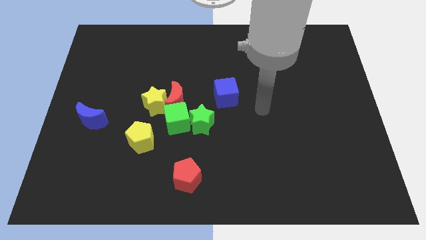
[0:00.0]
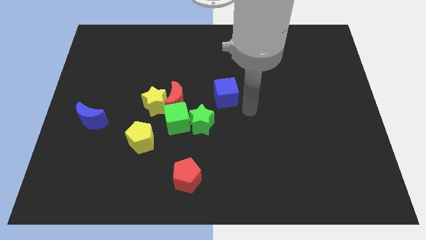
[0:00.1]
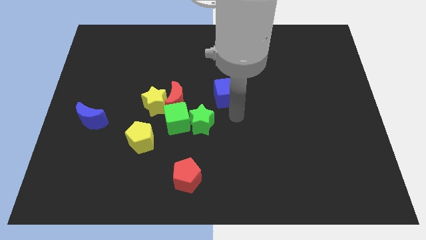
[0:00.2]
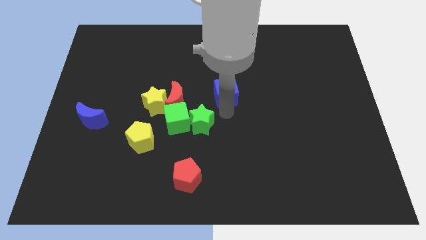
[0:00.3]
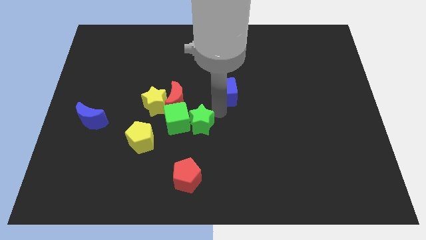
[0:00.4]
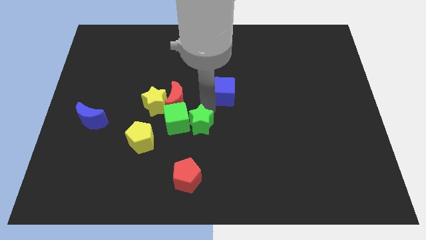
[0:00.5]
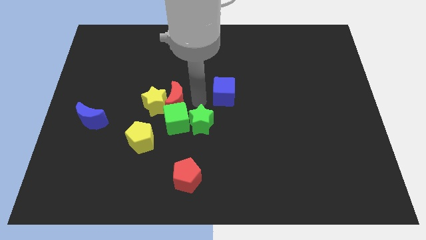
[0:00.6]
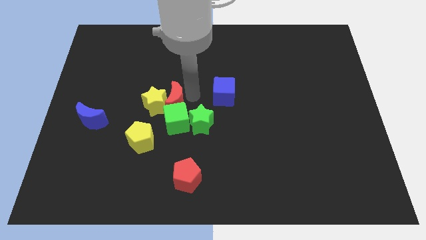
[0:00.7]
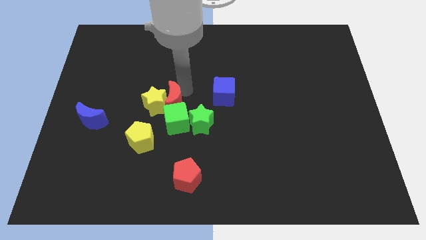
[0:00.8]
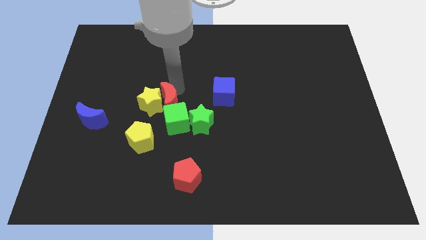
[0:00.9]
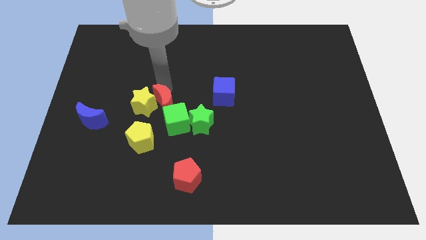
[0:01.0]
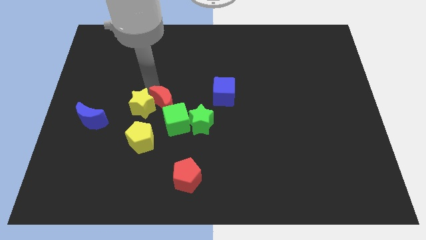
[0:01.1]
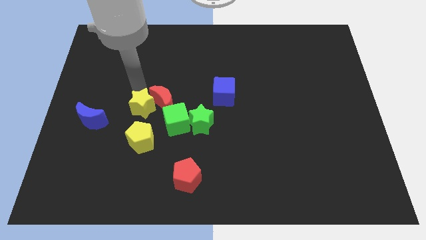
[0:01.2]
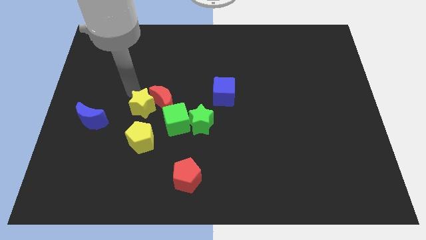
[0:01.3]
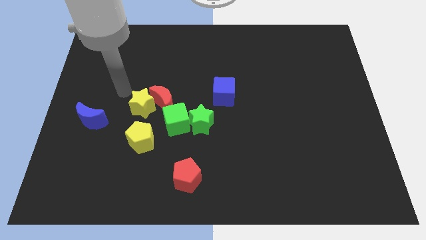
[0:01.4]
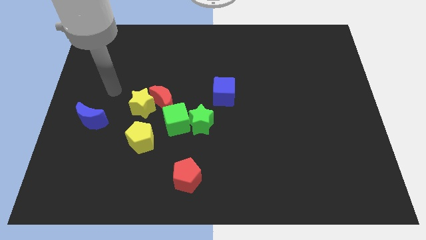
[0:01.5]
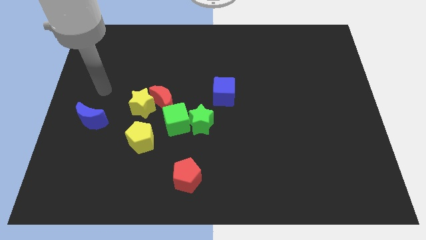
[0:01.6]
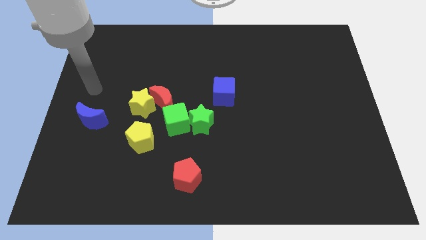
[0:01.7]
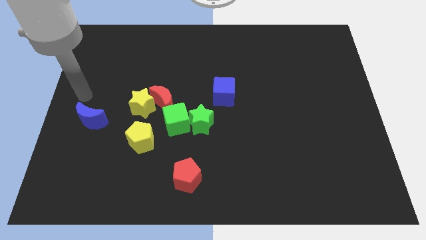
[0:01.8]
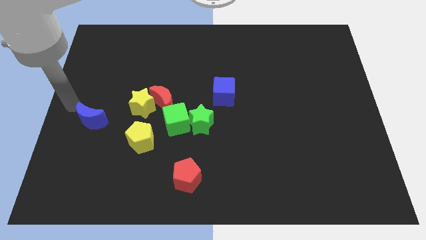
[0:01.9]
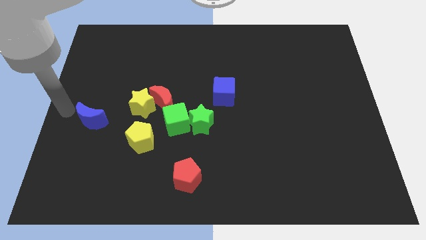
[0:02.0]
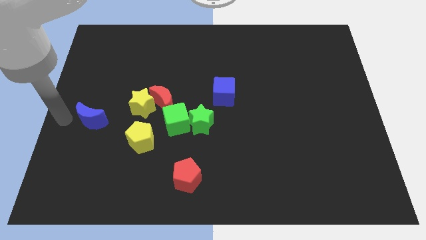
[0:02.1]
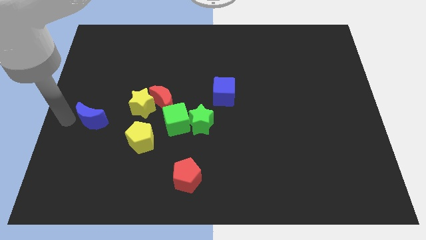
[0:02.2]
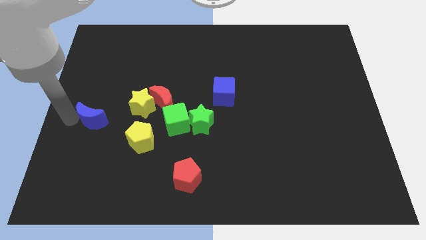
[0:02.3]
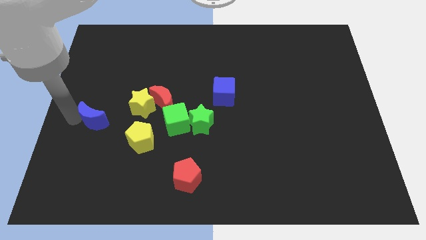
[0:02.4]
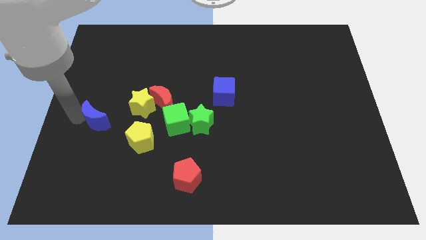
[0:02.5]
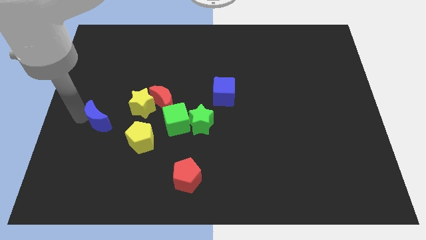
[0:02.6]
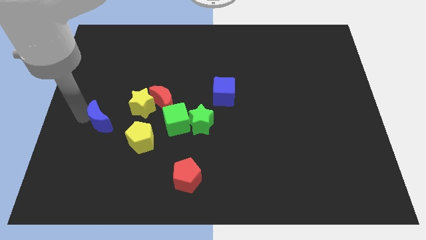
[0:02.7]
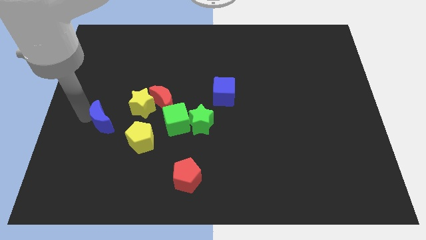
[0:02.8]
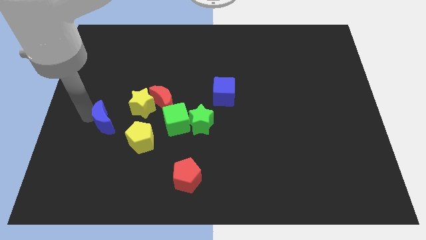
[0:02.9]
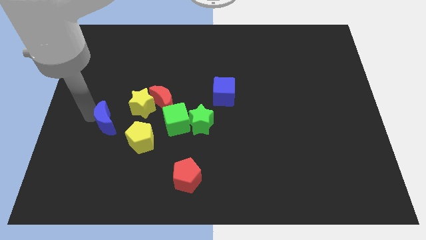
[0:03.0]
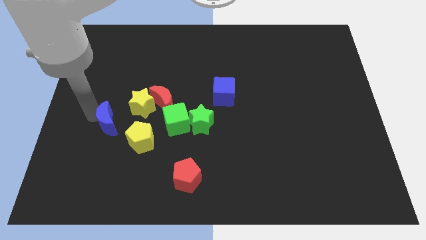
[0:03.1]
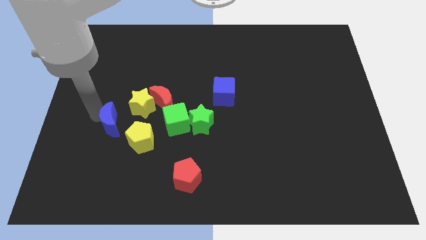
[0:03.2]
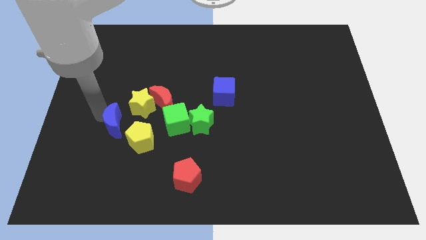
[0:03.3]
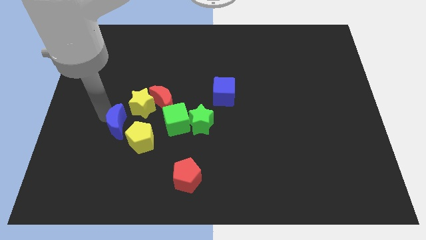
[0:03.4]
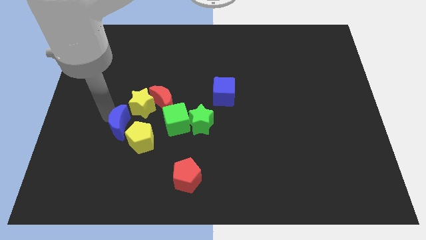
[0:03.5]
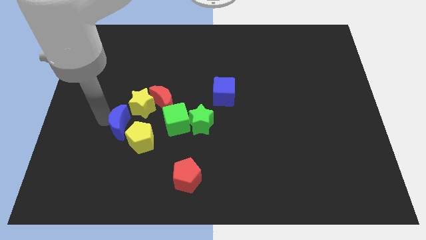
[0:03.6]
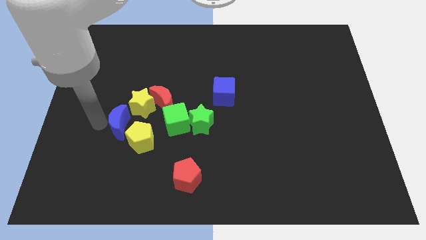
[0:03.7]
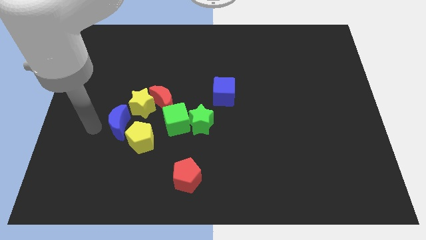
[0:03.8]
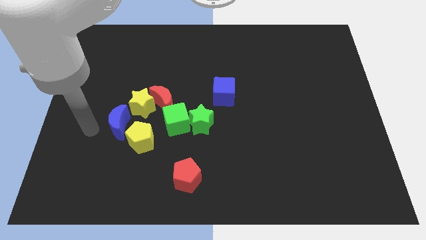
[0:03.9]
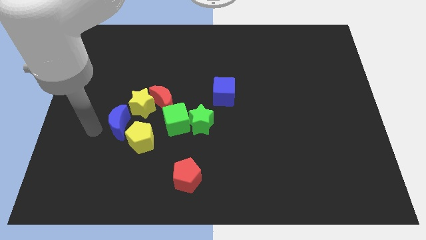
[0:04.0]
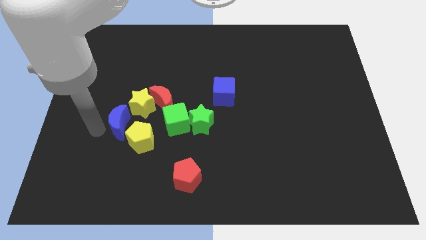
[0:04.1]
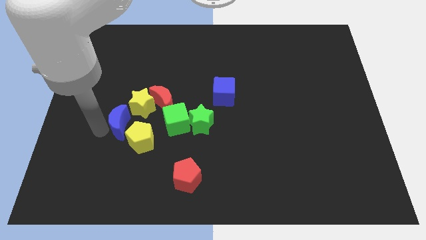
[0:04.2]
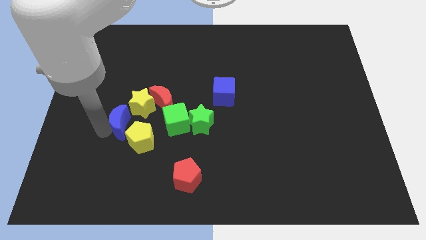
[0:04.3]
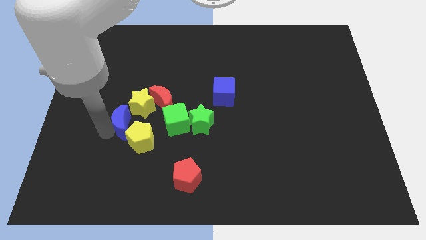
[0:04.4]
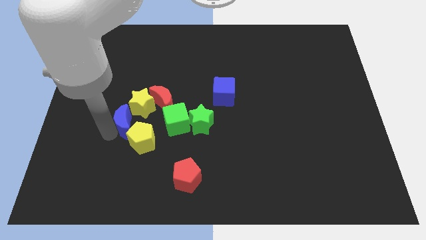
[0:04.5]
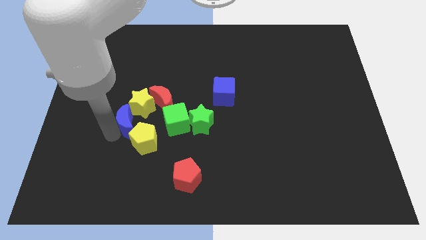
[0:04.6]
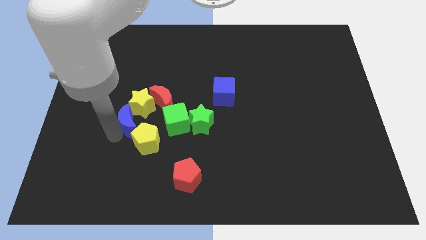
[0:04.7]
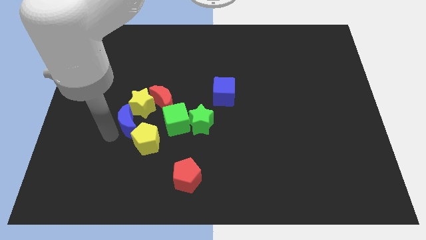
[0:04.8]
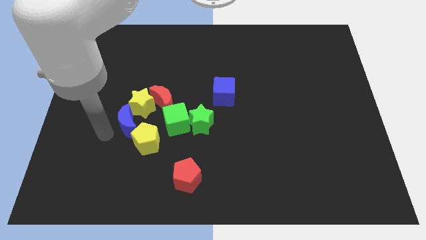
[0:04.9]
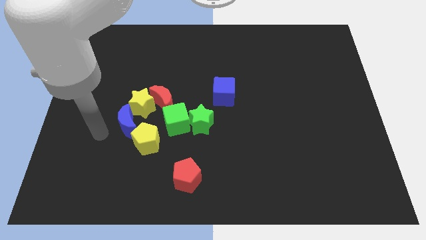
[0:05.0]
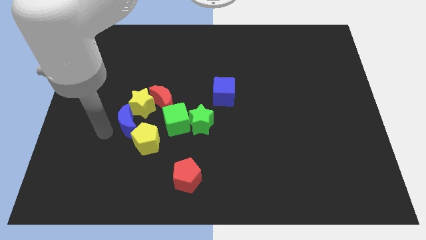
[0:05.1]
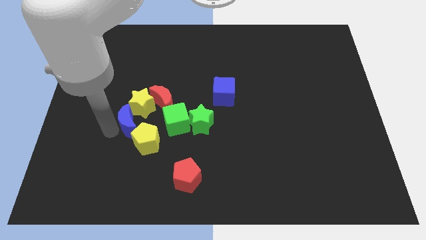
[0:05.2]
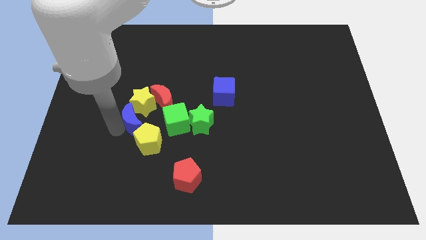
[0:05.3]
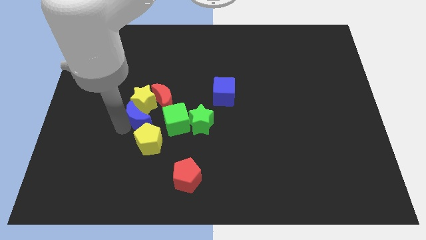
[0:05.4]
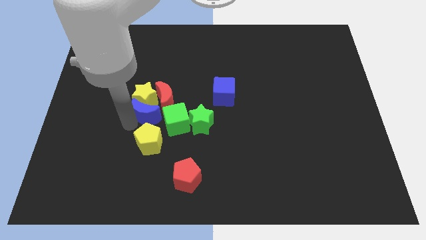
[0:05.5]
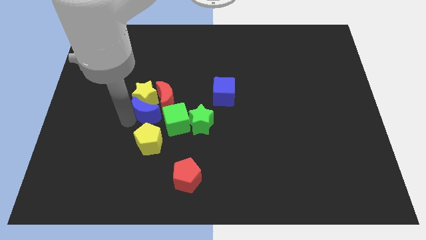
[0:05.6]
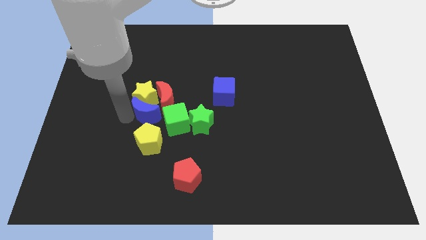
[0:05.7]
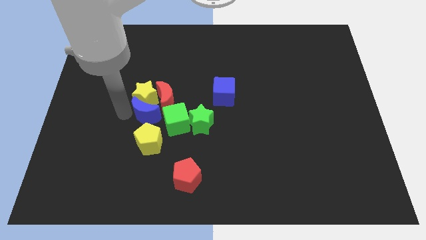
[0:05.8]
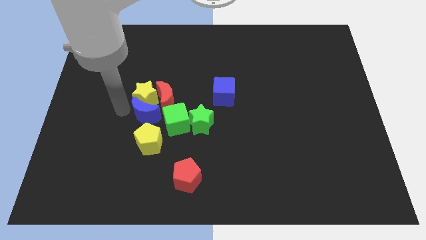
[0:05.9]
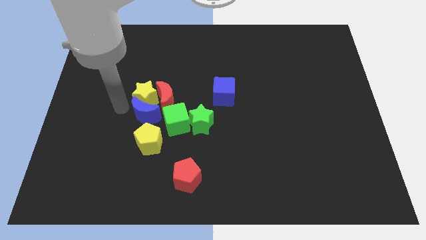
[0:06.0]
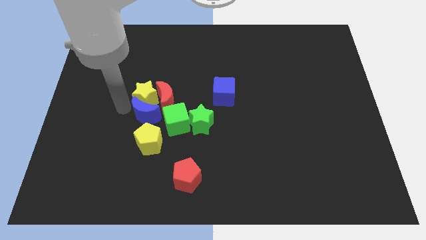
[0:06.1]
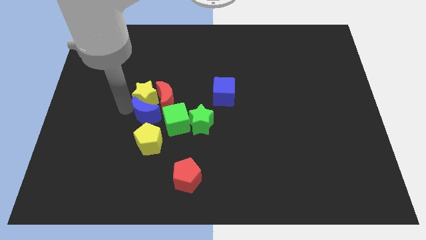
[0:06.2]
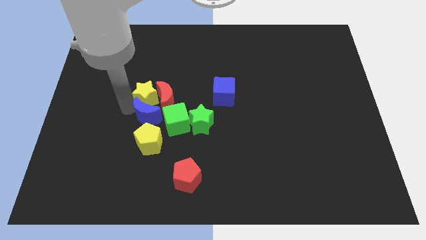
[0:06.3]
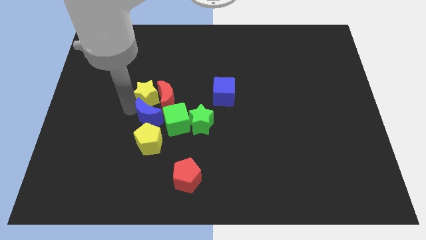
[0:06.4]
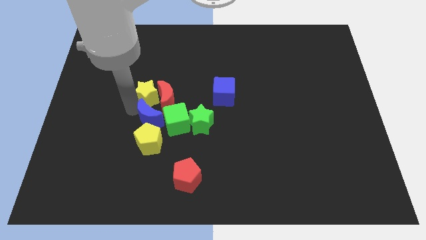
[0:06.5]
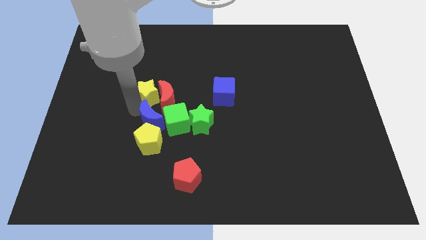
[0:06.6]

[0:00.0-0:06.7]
put the blue moon towards the green cube

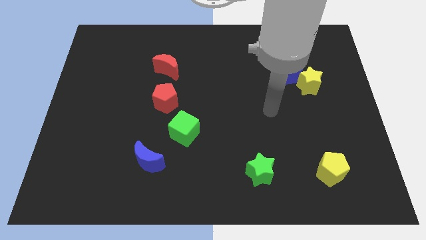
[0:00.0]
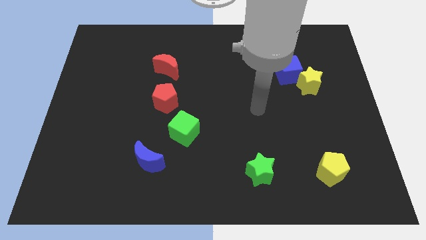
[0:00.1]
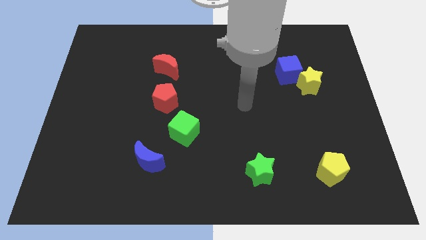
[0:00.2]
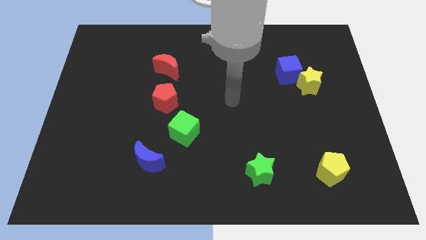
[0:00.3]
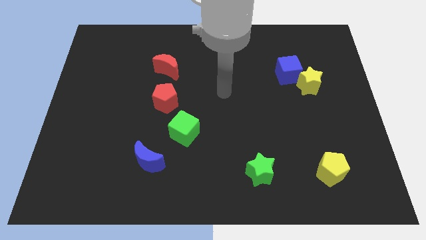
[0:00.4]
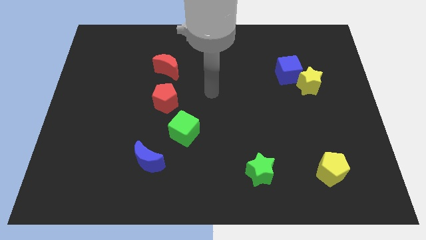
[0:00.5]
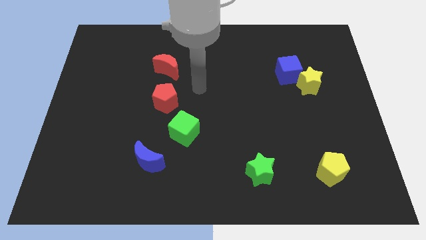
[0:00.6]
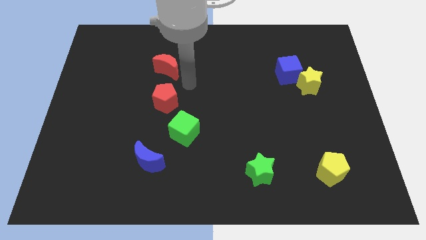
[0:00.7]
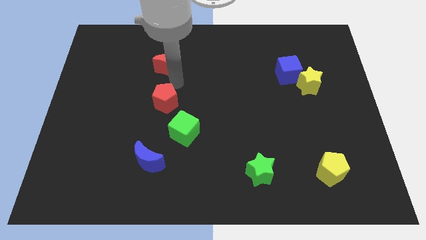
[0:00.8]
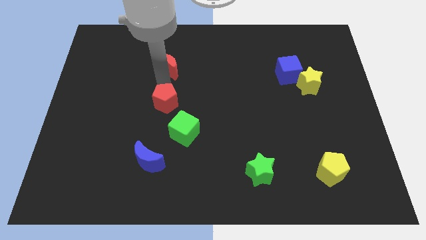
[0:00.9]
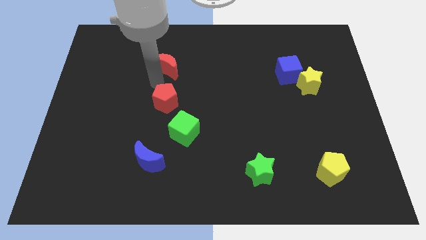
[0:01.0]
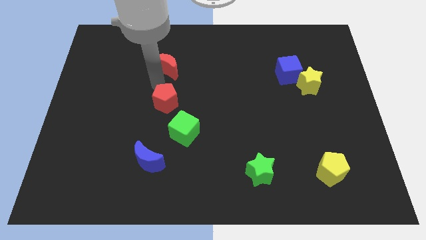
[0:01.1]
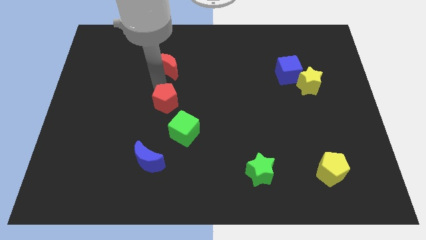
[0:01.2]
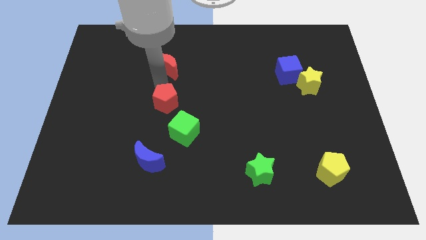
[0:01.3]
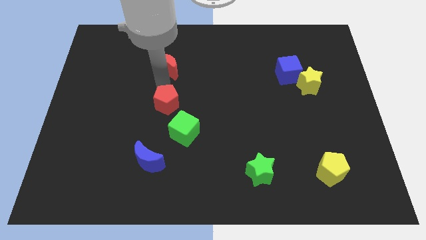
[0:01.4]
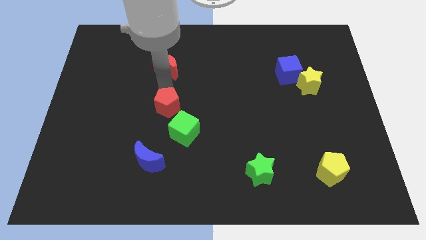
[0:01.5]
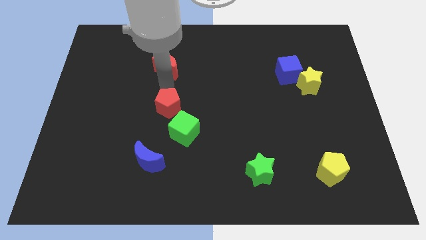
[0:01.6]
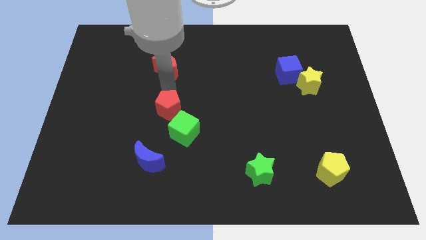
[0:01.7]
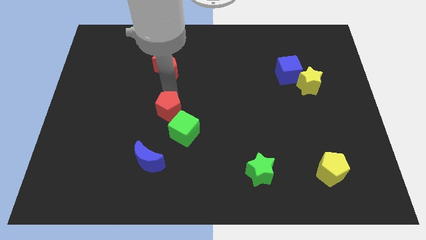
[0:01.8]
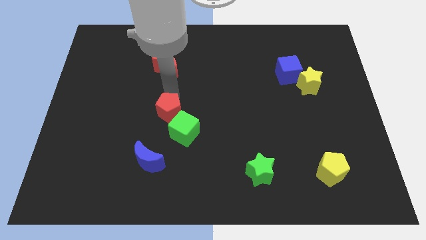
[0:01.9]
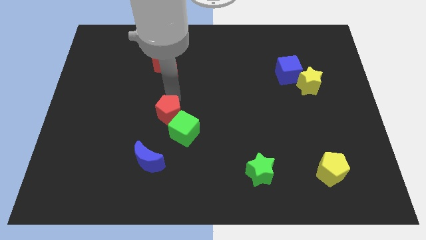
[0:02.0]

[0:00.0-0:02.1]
move the red pentagon towards the green cube
